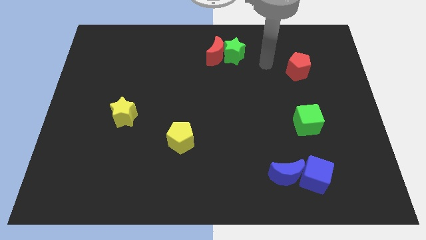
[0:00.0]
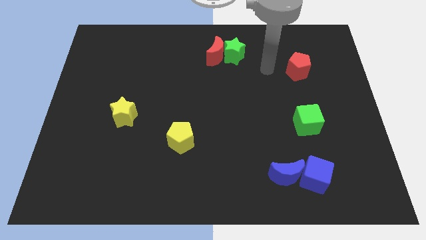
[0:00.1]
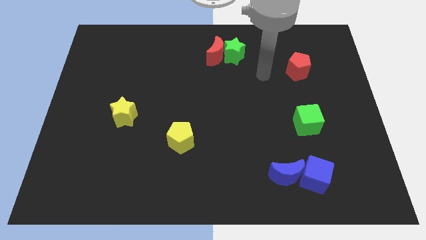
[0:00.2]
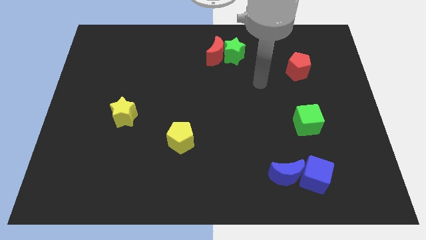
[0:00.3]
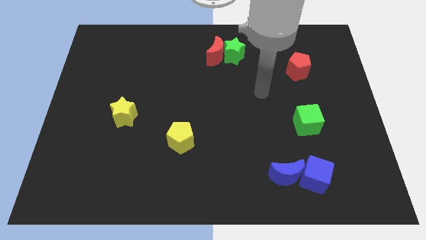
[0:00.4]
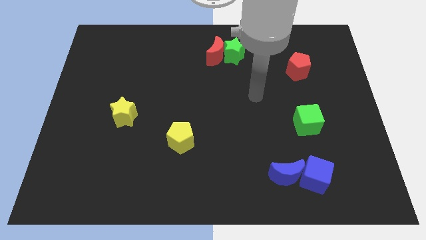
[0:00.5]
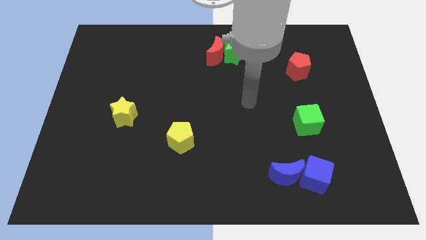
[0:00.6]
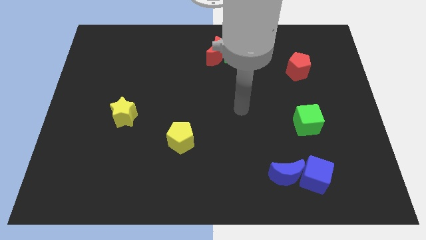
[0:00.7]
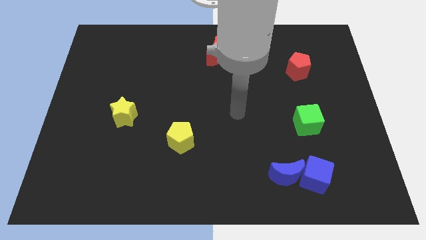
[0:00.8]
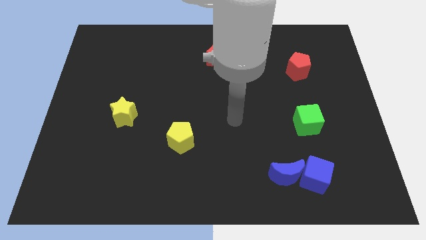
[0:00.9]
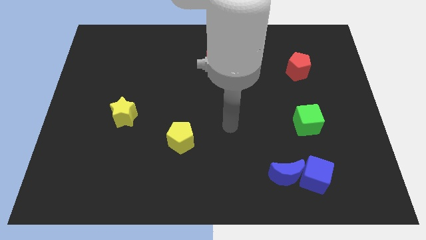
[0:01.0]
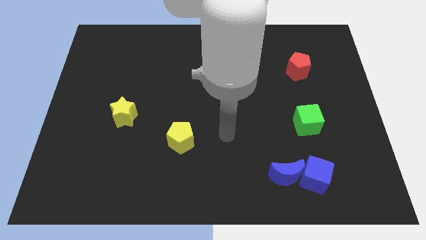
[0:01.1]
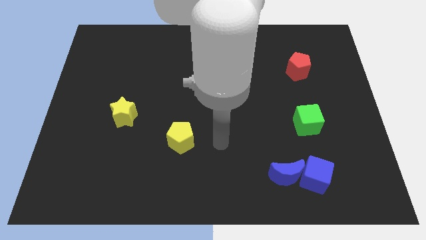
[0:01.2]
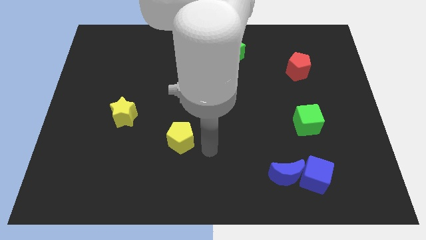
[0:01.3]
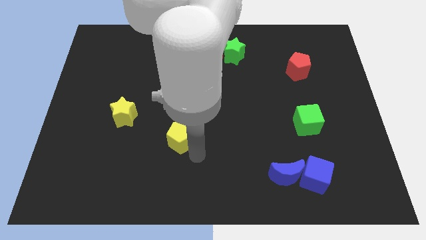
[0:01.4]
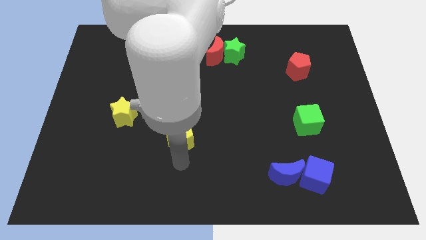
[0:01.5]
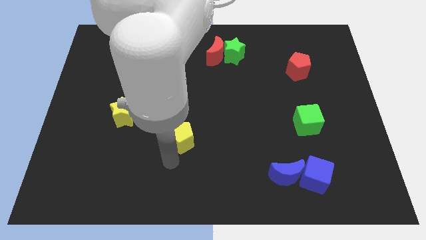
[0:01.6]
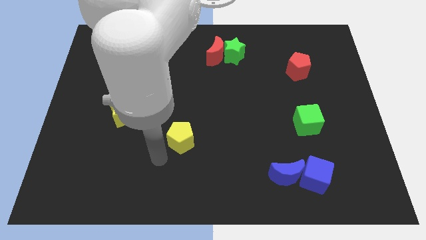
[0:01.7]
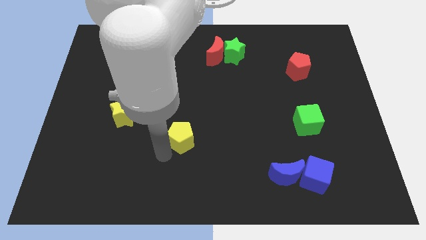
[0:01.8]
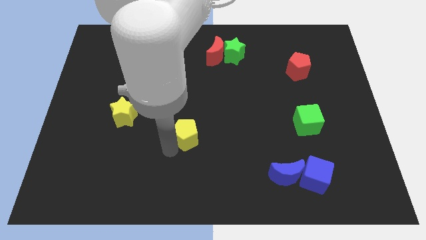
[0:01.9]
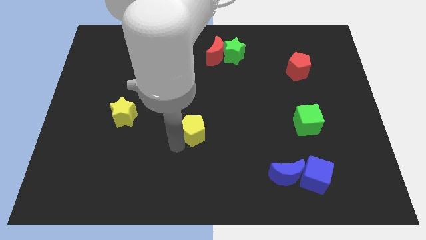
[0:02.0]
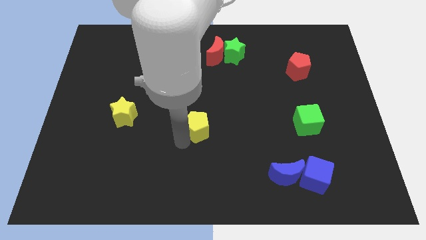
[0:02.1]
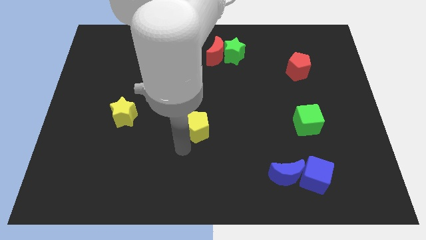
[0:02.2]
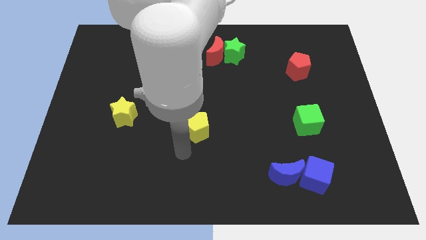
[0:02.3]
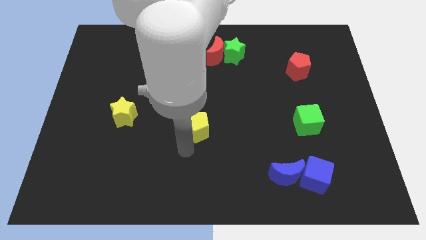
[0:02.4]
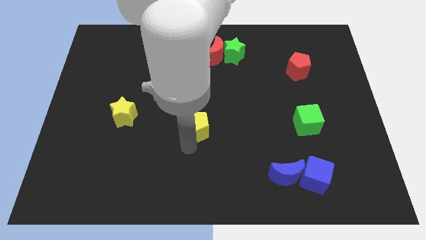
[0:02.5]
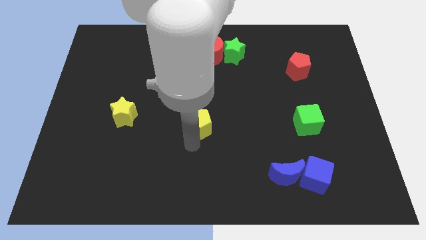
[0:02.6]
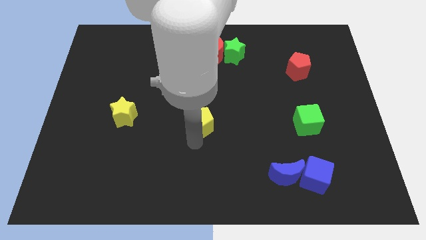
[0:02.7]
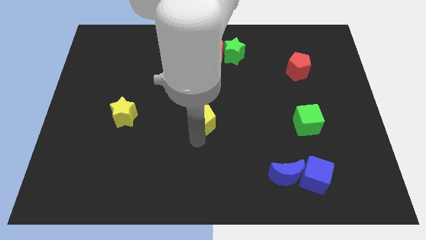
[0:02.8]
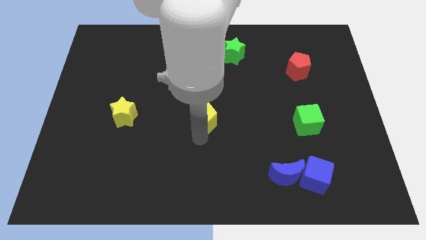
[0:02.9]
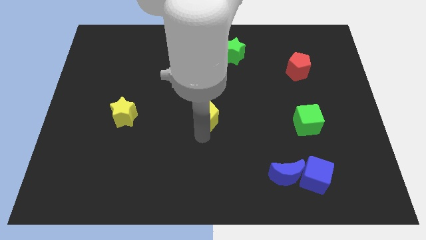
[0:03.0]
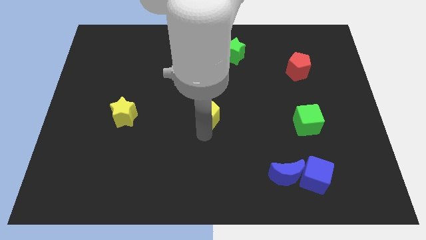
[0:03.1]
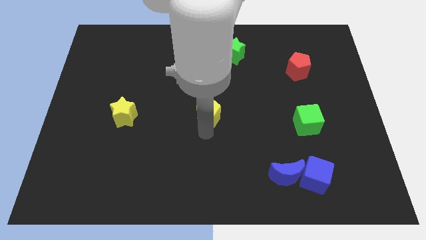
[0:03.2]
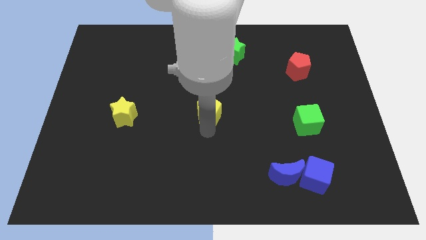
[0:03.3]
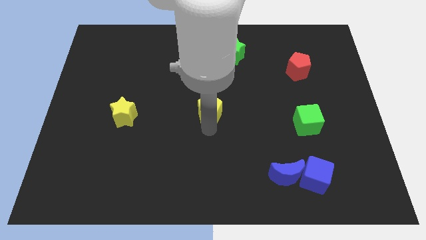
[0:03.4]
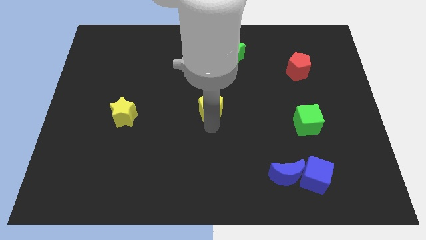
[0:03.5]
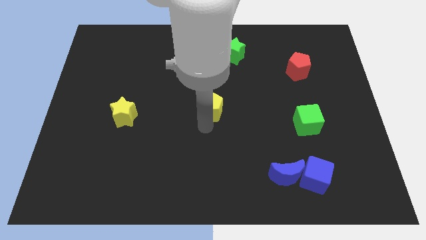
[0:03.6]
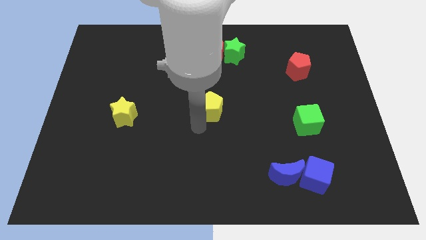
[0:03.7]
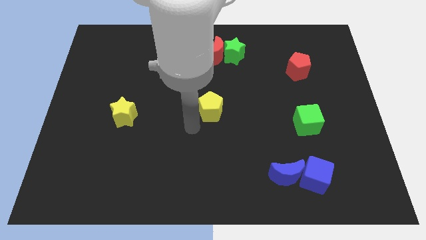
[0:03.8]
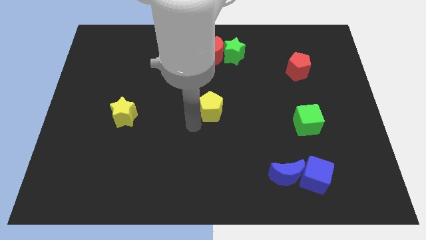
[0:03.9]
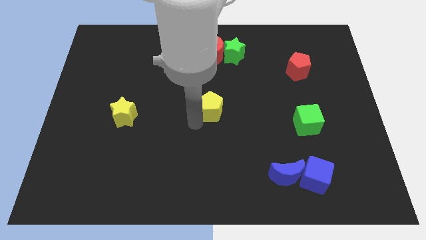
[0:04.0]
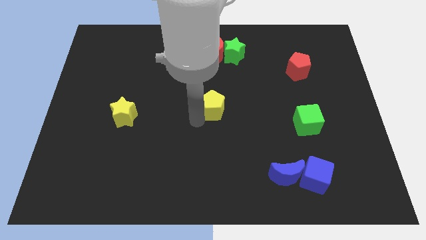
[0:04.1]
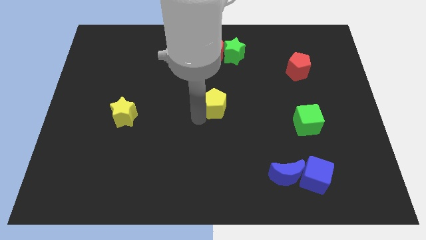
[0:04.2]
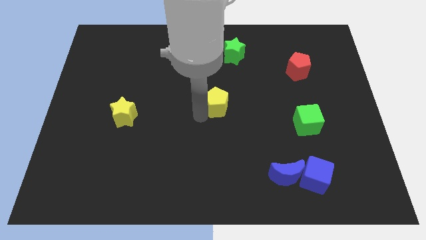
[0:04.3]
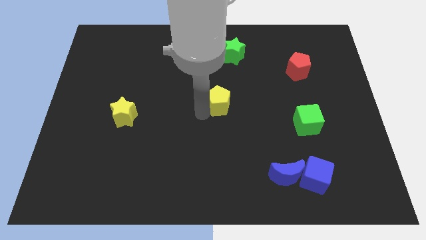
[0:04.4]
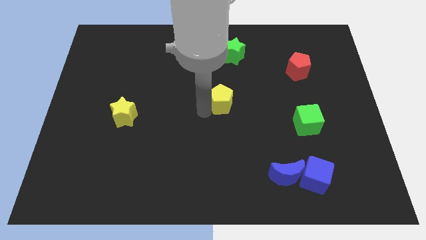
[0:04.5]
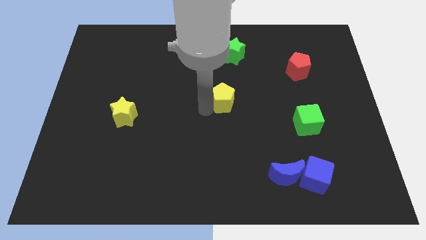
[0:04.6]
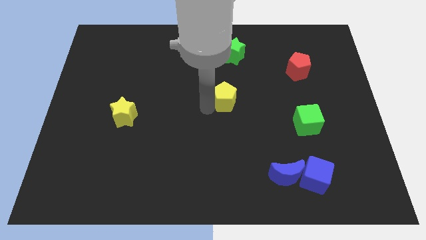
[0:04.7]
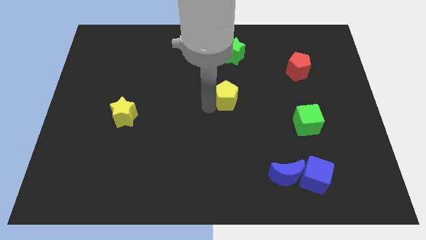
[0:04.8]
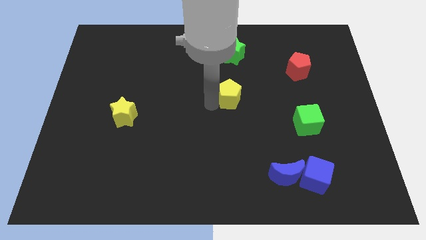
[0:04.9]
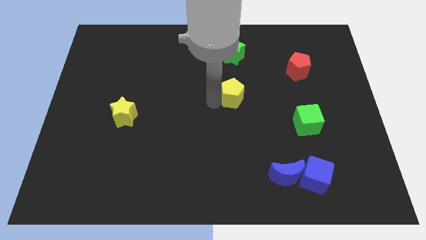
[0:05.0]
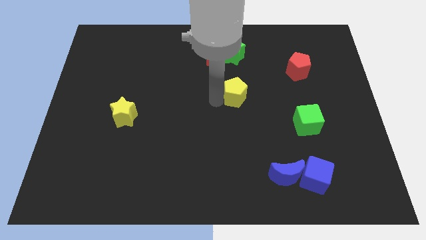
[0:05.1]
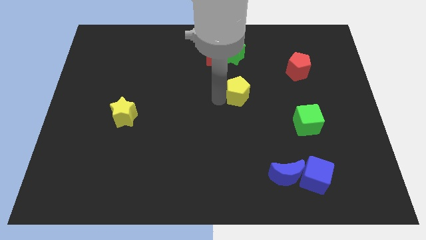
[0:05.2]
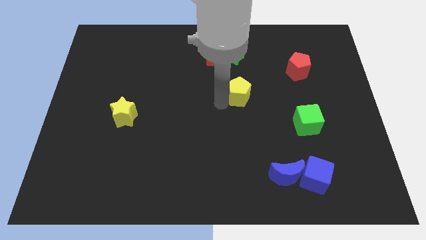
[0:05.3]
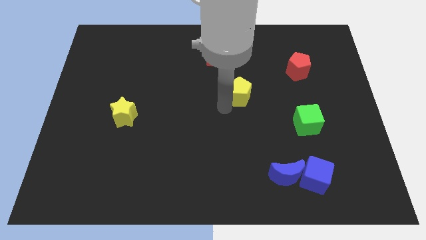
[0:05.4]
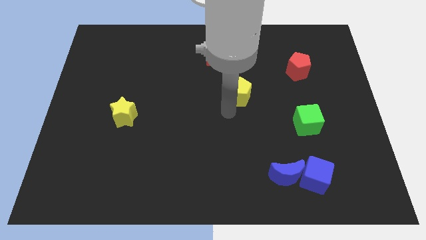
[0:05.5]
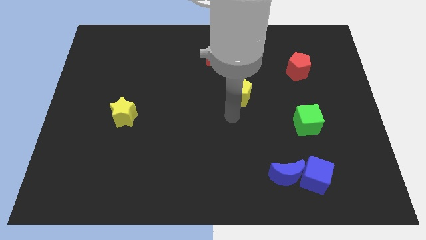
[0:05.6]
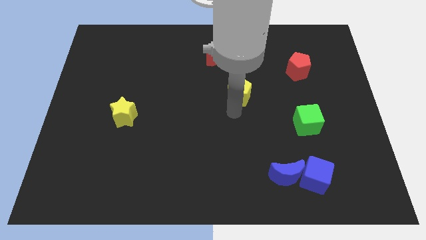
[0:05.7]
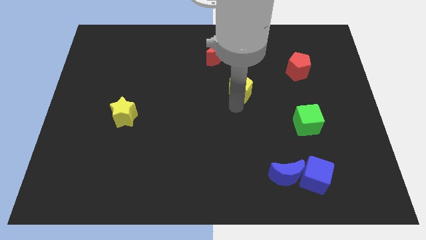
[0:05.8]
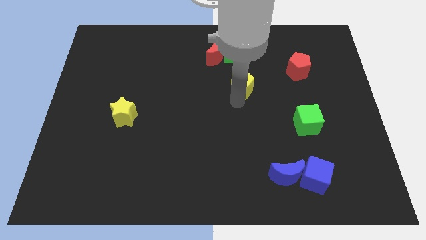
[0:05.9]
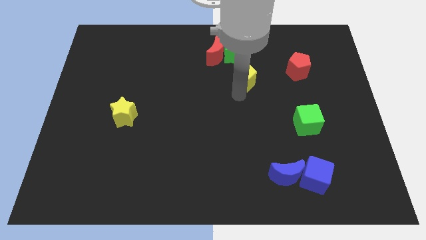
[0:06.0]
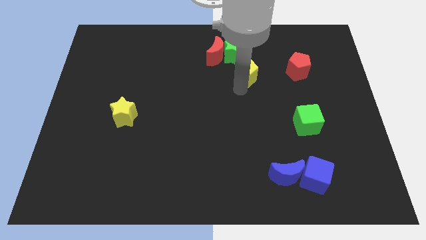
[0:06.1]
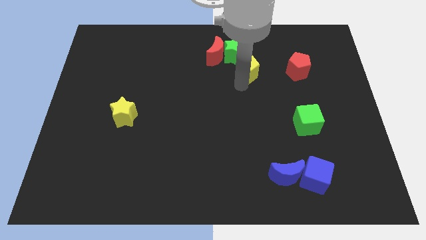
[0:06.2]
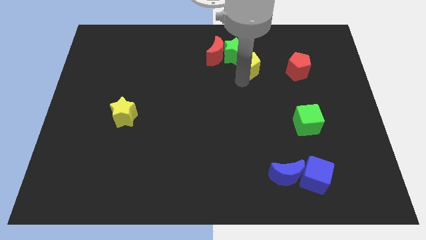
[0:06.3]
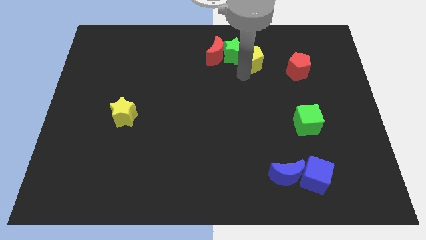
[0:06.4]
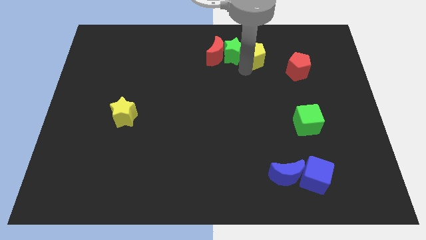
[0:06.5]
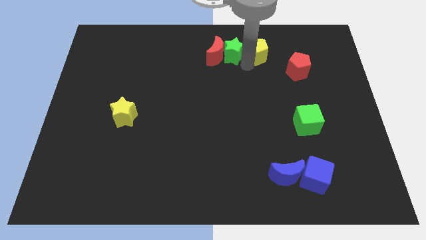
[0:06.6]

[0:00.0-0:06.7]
move the yellow pentagon to the top left of the red pentagon
